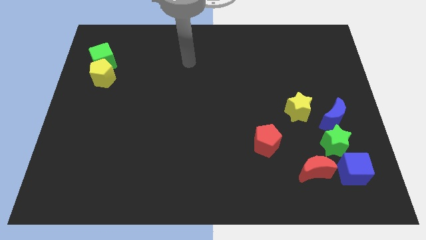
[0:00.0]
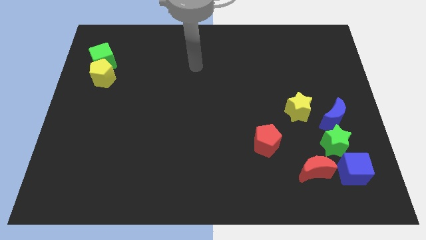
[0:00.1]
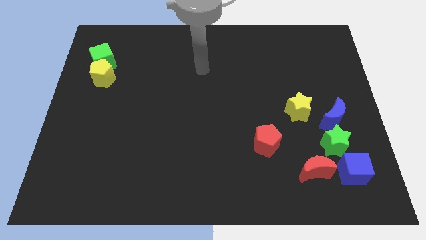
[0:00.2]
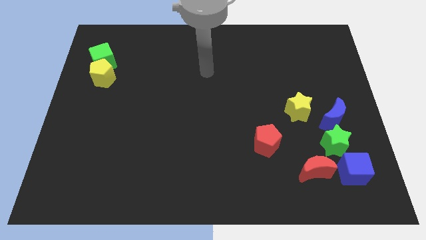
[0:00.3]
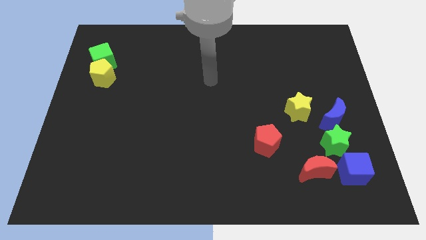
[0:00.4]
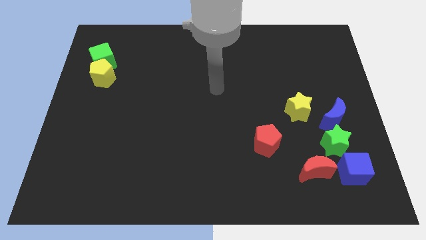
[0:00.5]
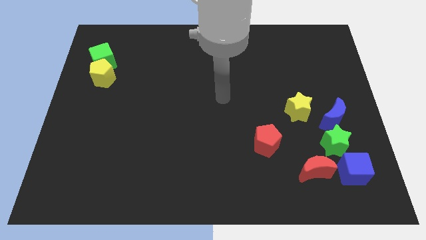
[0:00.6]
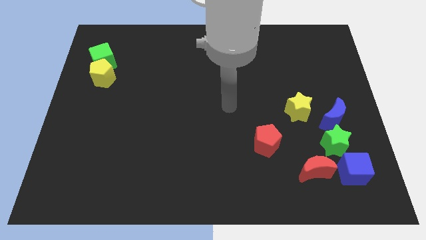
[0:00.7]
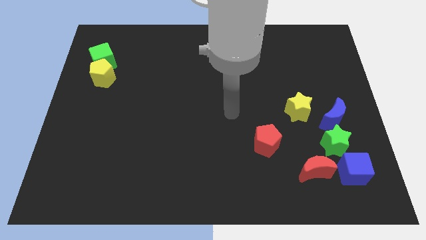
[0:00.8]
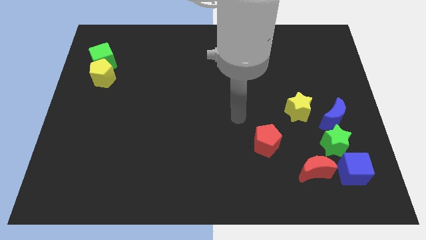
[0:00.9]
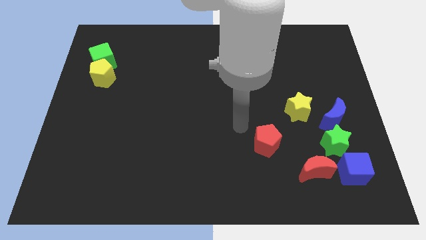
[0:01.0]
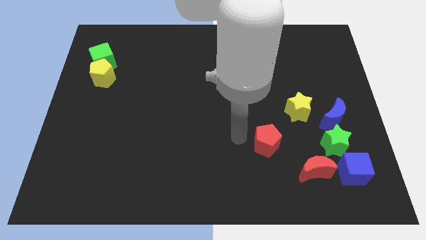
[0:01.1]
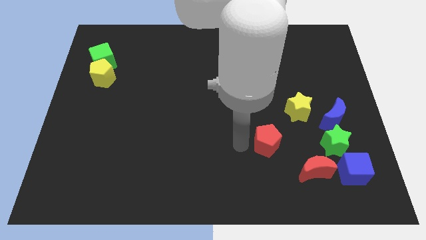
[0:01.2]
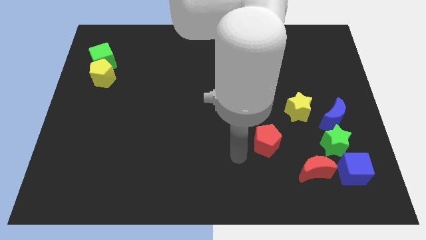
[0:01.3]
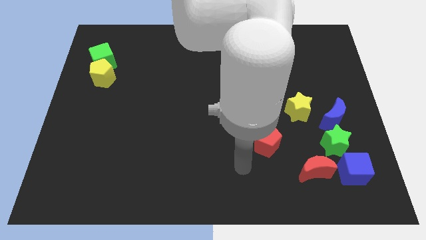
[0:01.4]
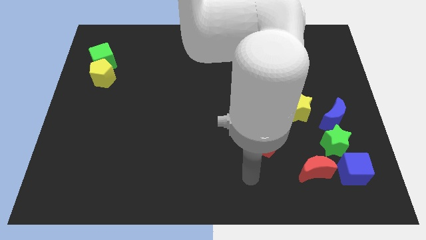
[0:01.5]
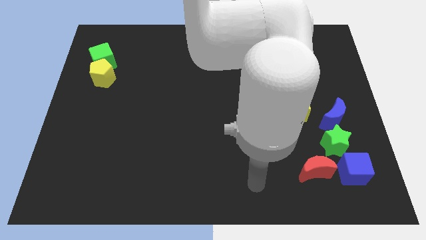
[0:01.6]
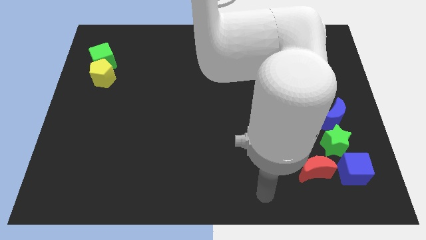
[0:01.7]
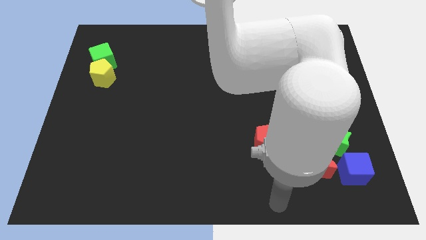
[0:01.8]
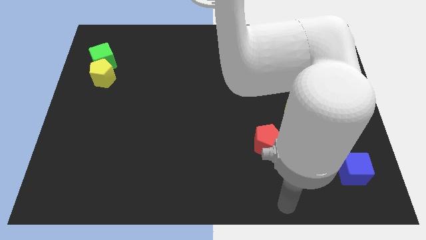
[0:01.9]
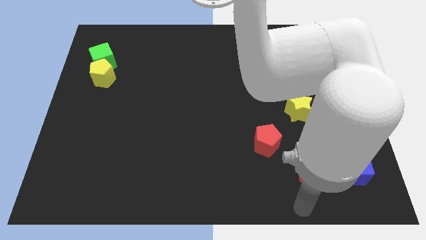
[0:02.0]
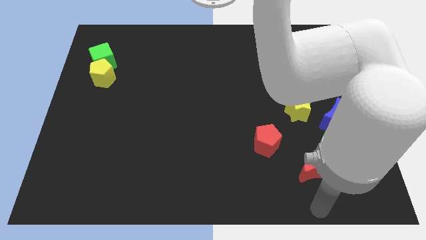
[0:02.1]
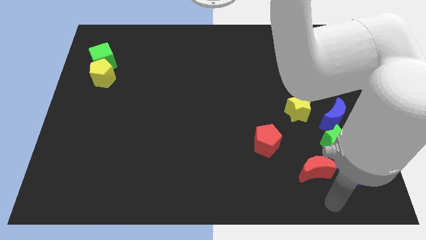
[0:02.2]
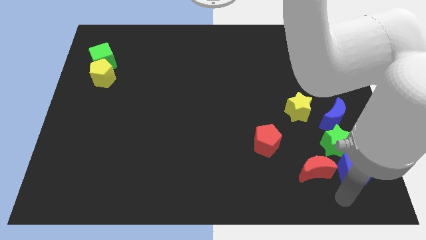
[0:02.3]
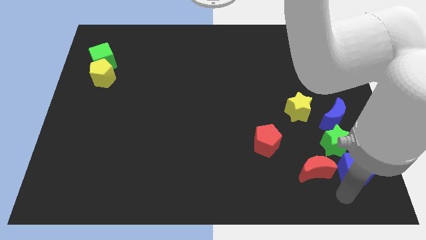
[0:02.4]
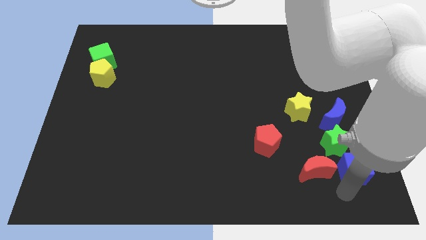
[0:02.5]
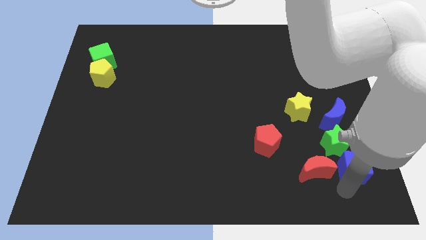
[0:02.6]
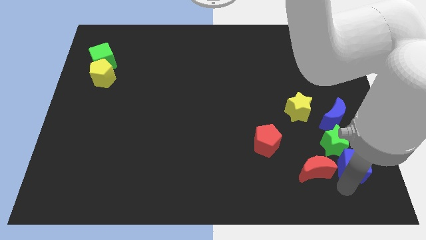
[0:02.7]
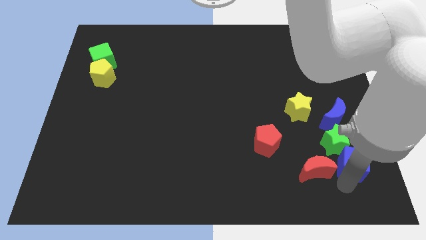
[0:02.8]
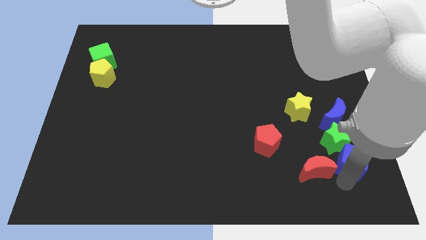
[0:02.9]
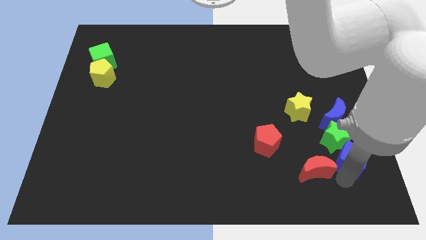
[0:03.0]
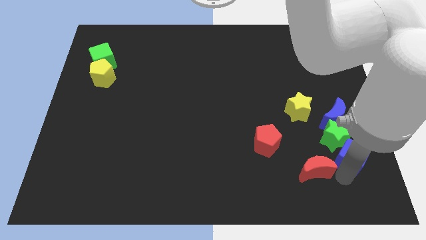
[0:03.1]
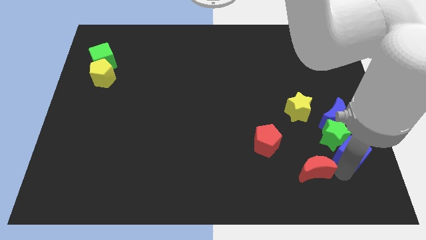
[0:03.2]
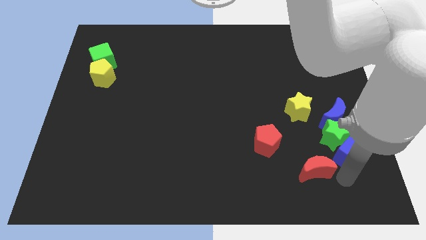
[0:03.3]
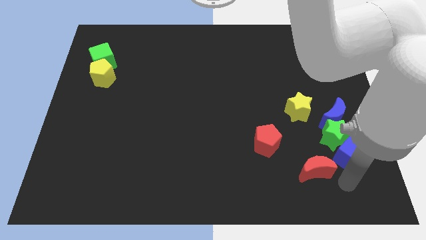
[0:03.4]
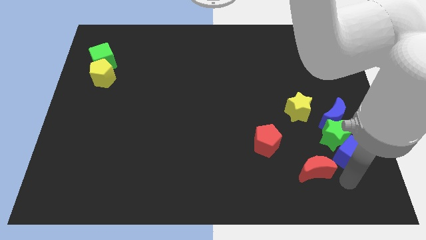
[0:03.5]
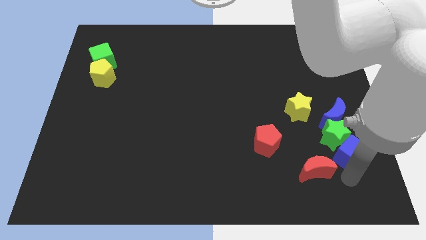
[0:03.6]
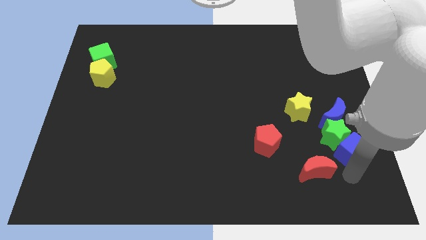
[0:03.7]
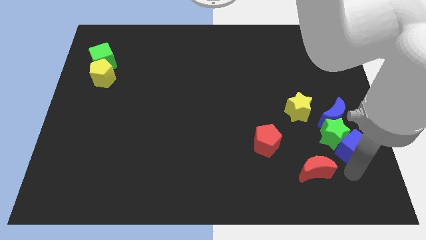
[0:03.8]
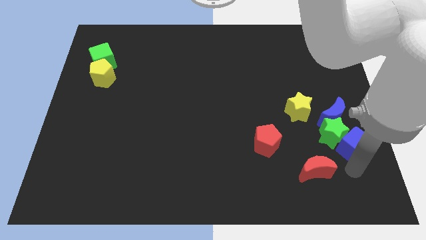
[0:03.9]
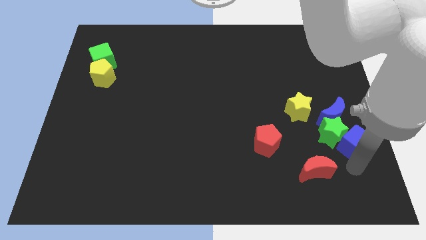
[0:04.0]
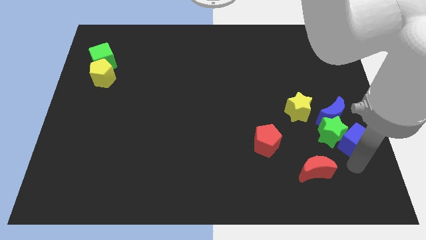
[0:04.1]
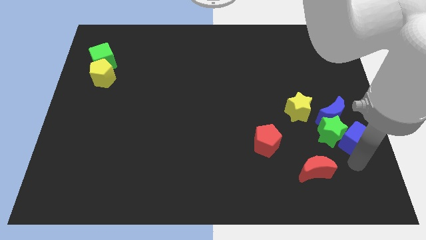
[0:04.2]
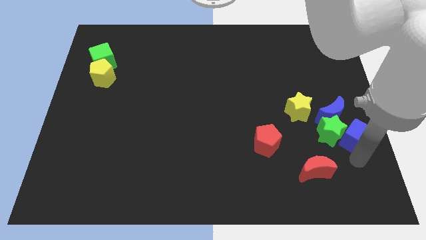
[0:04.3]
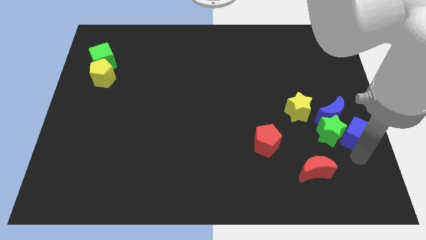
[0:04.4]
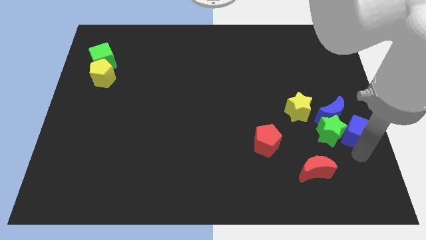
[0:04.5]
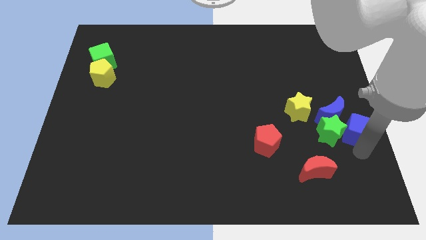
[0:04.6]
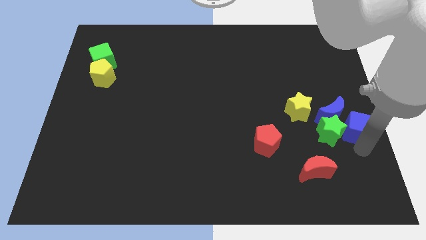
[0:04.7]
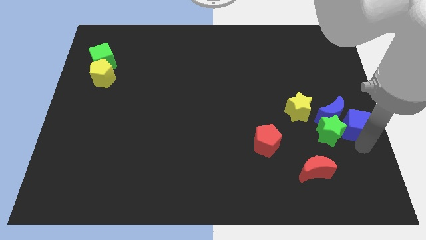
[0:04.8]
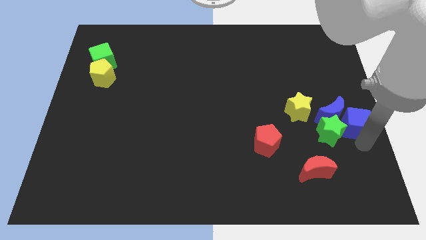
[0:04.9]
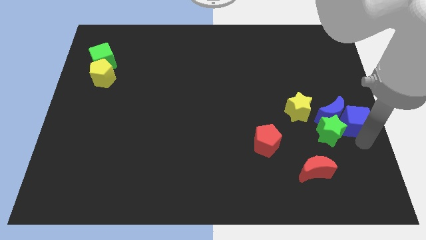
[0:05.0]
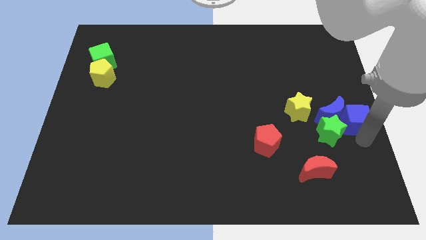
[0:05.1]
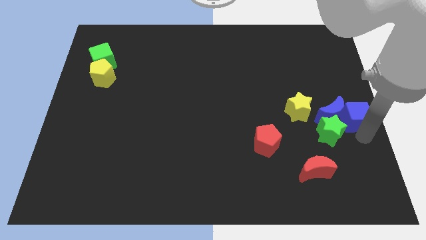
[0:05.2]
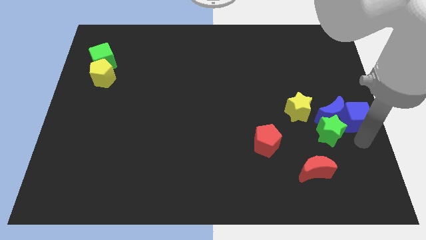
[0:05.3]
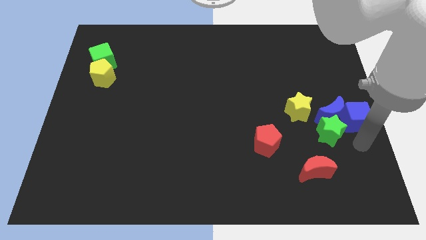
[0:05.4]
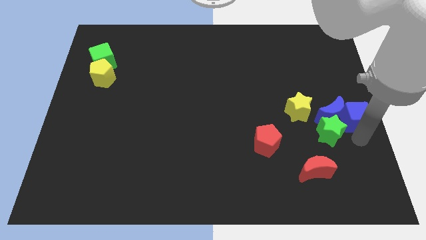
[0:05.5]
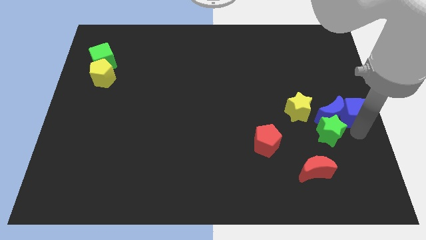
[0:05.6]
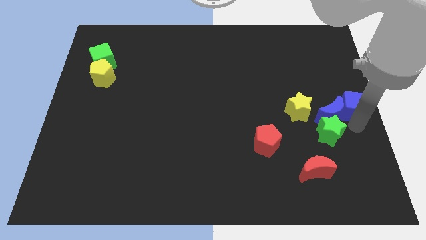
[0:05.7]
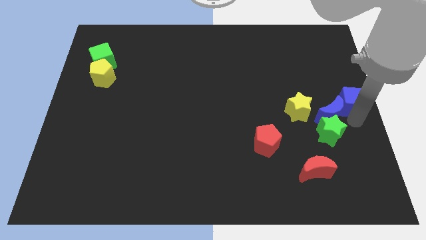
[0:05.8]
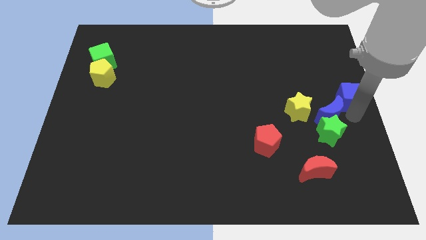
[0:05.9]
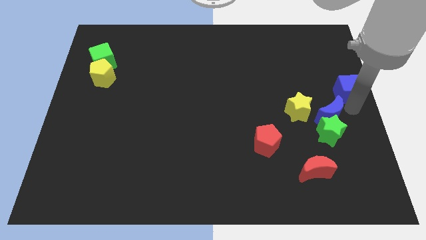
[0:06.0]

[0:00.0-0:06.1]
move the blue cube upwards

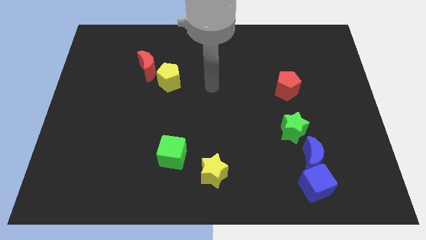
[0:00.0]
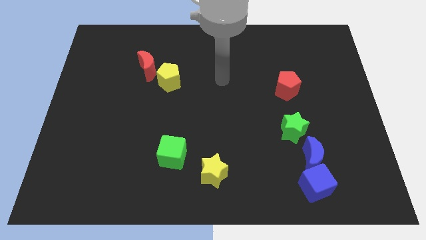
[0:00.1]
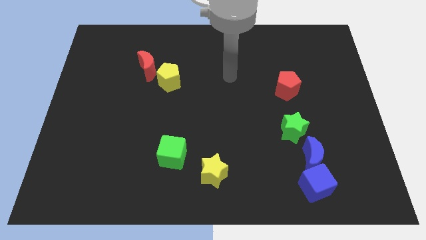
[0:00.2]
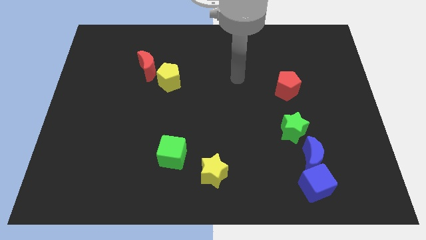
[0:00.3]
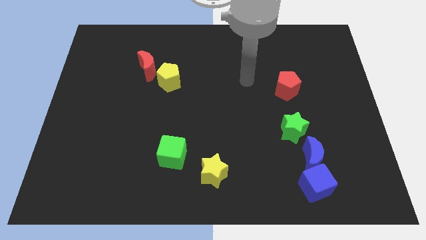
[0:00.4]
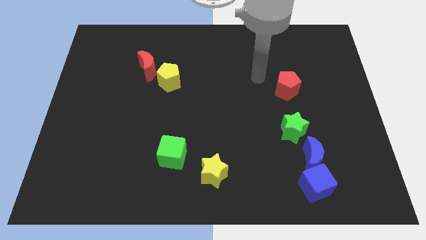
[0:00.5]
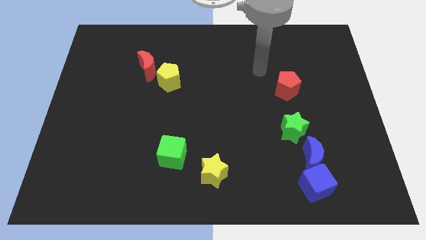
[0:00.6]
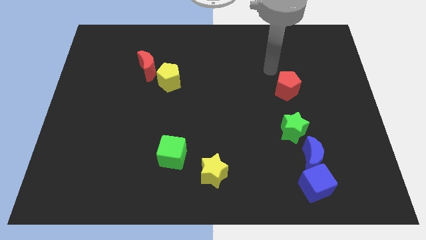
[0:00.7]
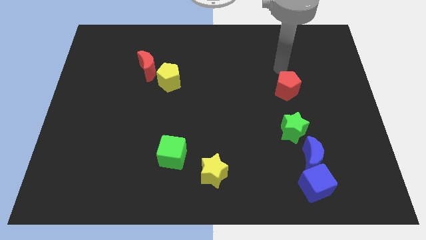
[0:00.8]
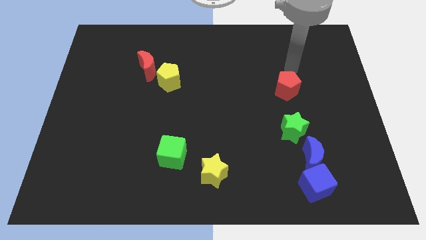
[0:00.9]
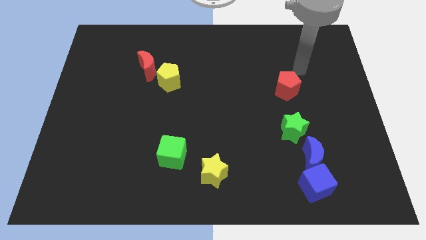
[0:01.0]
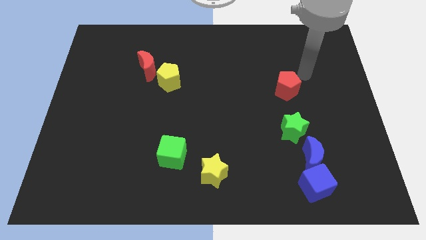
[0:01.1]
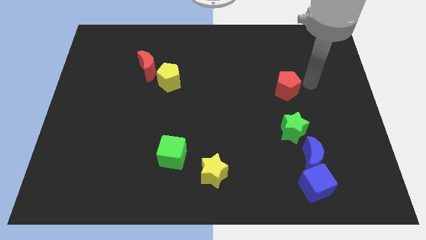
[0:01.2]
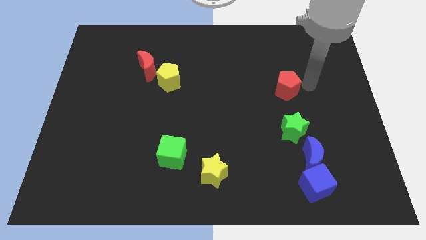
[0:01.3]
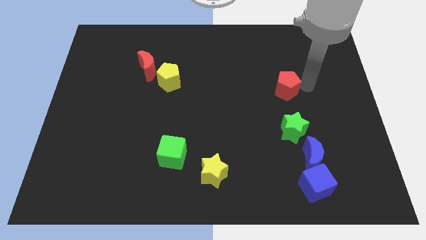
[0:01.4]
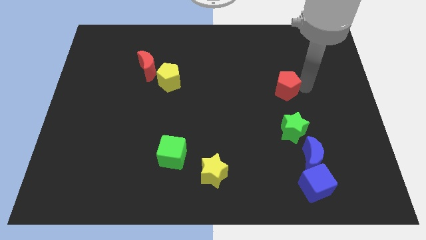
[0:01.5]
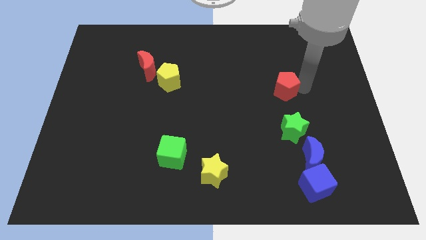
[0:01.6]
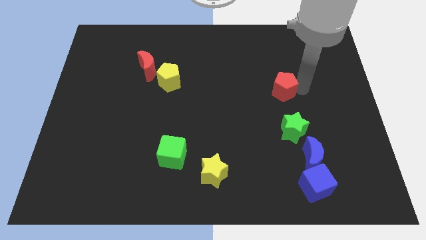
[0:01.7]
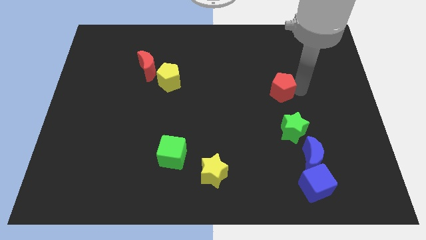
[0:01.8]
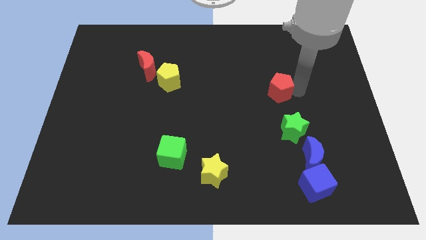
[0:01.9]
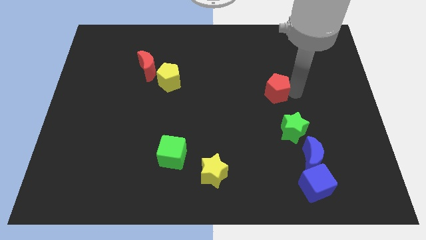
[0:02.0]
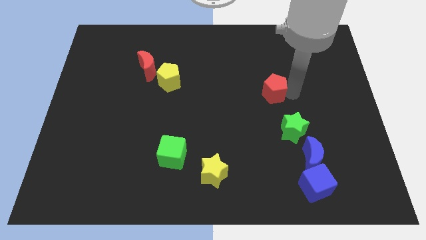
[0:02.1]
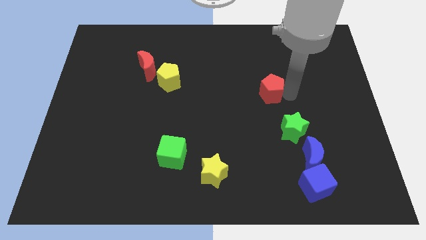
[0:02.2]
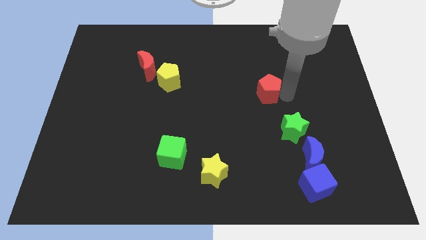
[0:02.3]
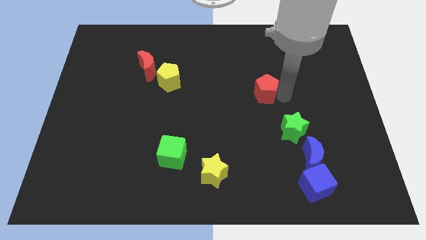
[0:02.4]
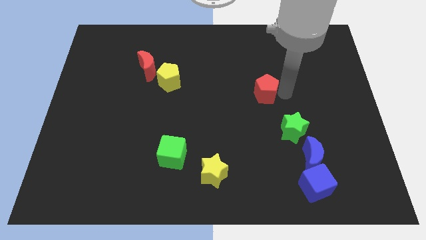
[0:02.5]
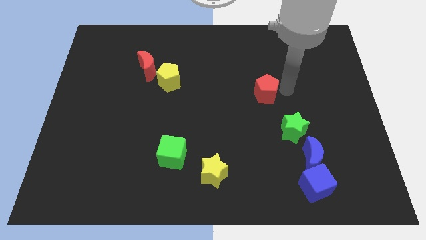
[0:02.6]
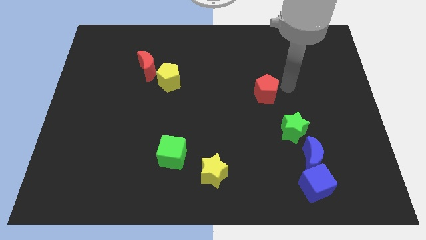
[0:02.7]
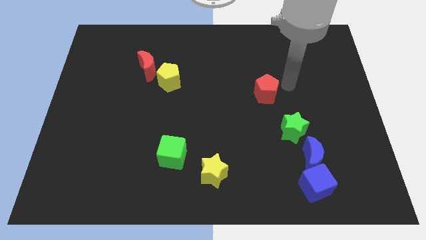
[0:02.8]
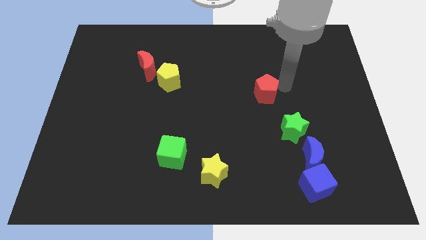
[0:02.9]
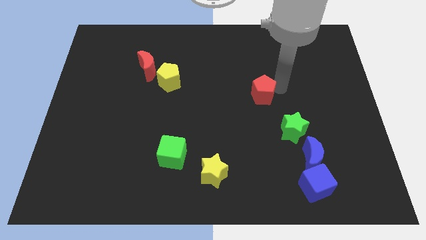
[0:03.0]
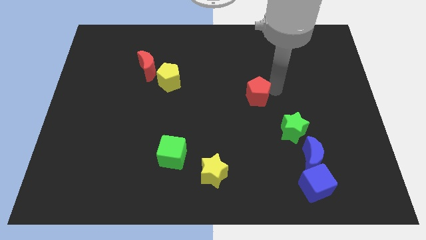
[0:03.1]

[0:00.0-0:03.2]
move the red pentagon a little bit to the left
